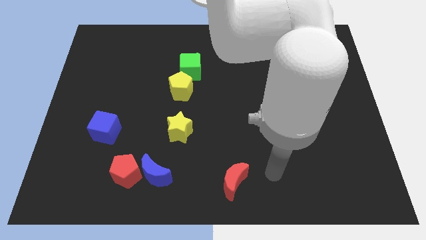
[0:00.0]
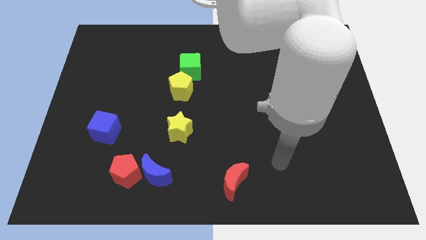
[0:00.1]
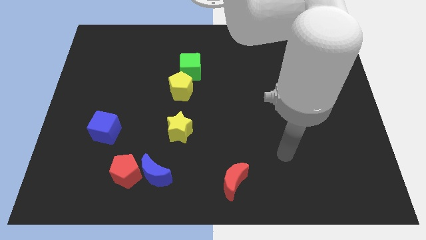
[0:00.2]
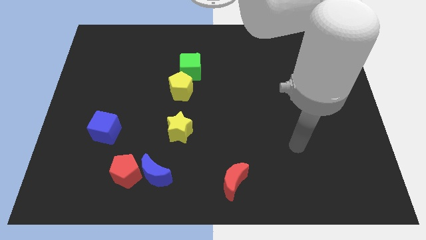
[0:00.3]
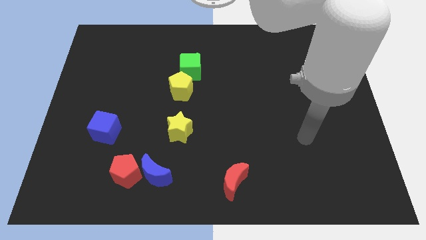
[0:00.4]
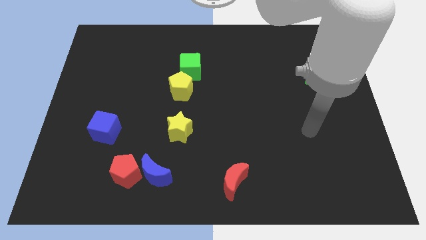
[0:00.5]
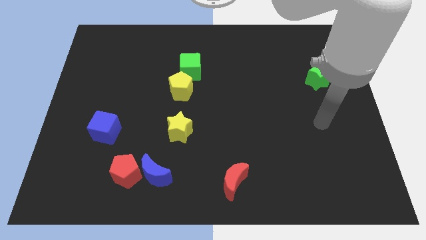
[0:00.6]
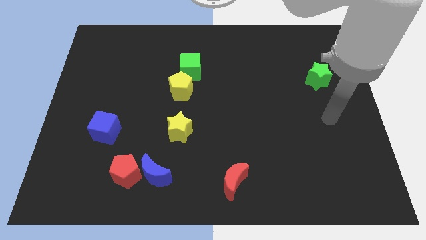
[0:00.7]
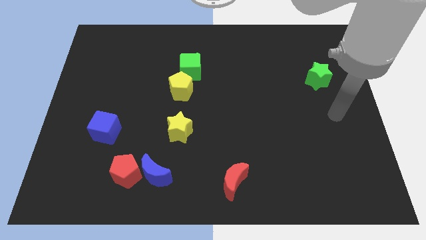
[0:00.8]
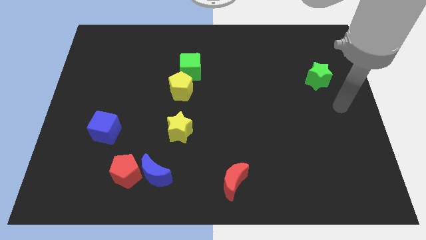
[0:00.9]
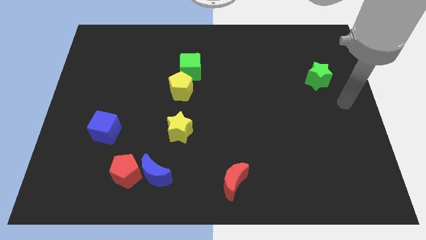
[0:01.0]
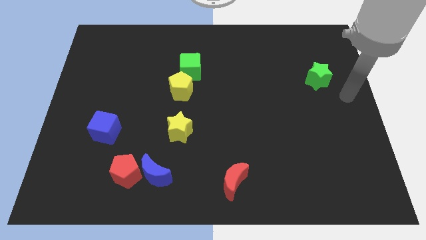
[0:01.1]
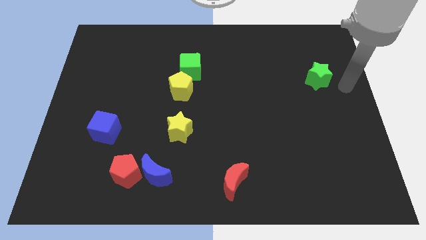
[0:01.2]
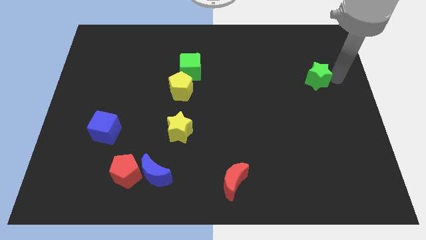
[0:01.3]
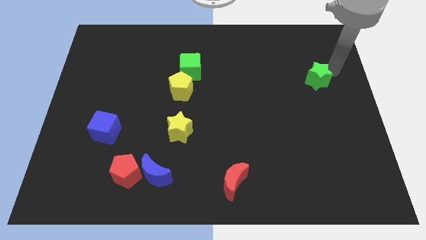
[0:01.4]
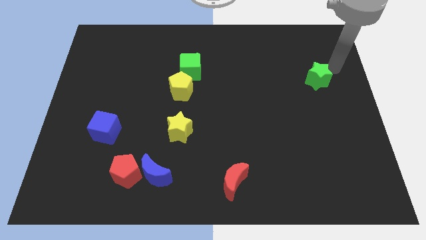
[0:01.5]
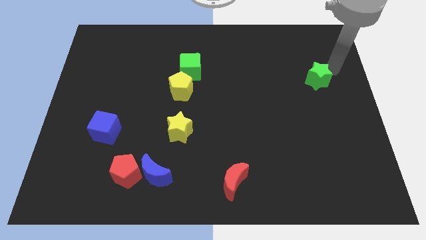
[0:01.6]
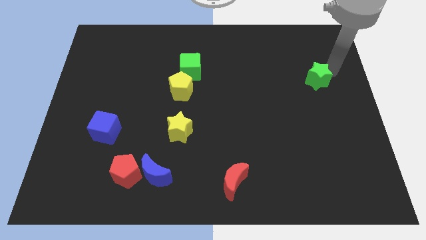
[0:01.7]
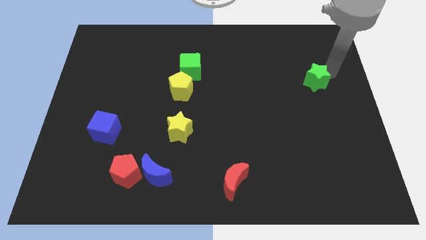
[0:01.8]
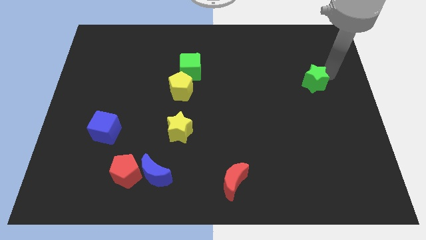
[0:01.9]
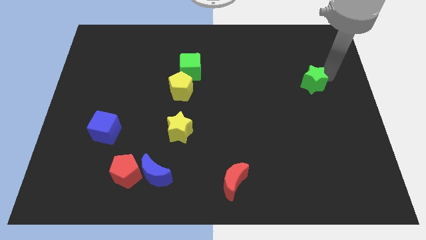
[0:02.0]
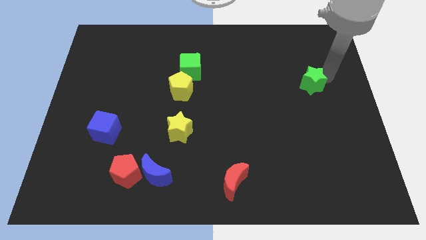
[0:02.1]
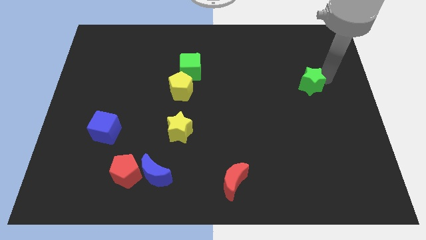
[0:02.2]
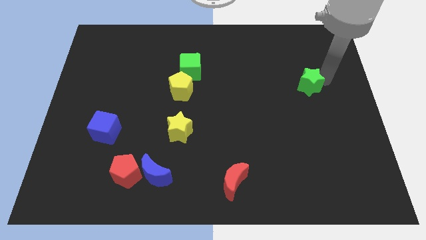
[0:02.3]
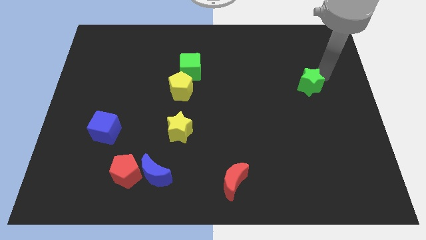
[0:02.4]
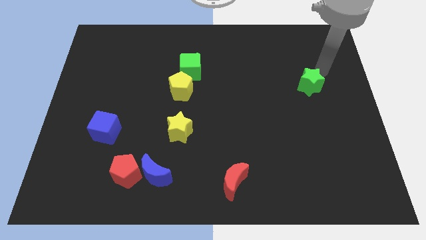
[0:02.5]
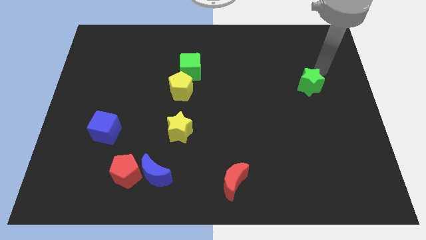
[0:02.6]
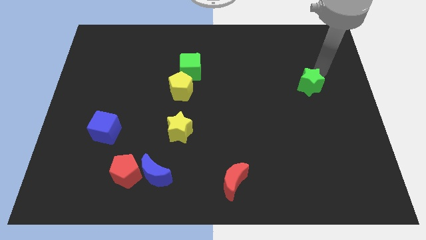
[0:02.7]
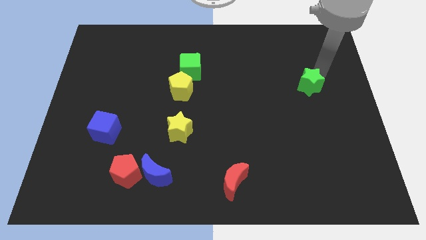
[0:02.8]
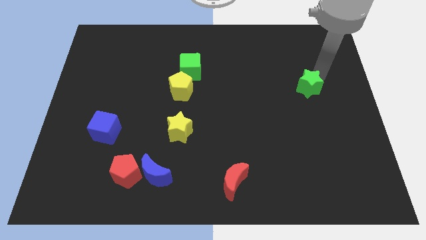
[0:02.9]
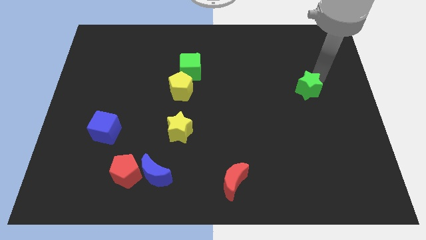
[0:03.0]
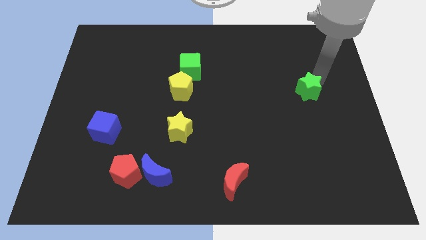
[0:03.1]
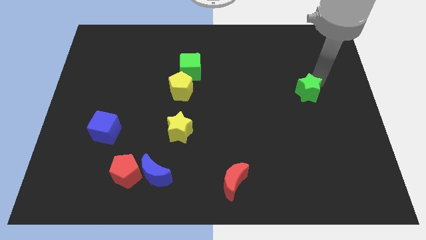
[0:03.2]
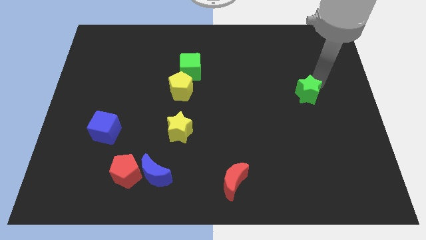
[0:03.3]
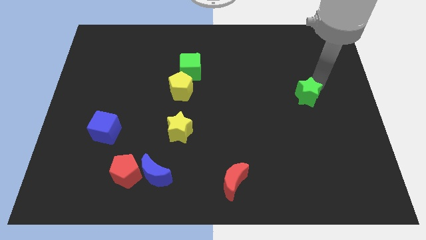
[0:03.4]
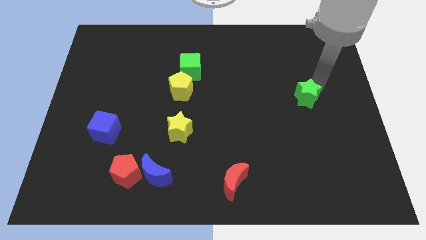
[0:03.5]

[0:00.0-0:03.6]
push the green star diagonally down and left somewhat

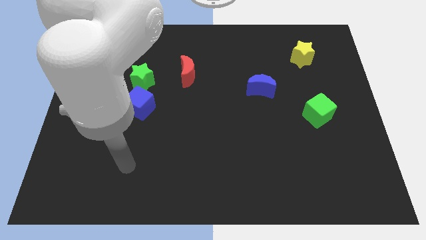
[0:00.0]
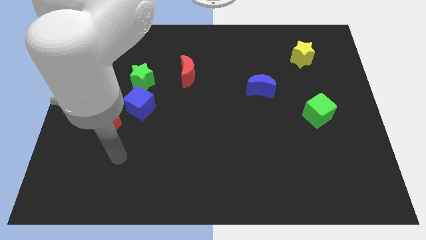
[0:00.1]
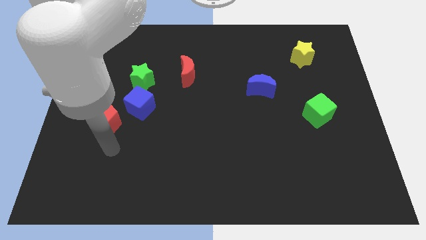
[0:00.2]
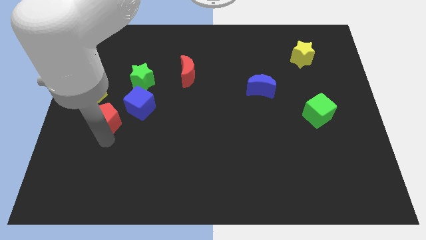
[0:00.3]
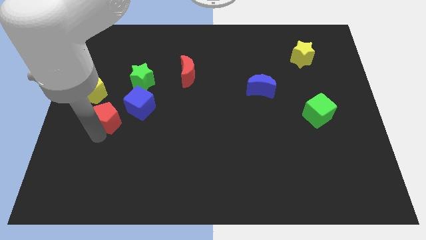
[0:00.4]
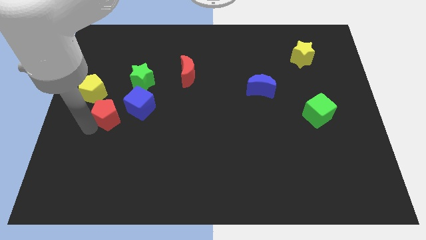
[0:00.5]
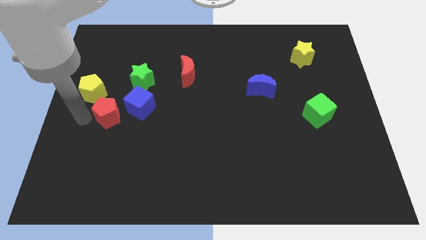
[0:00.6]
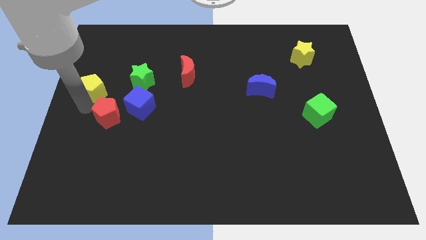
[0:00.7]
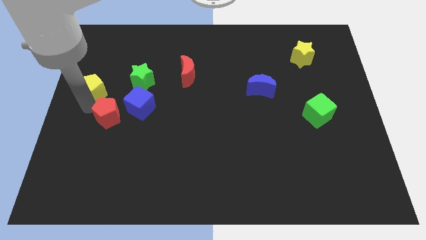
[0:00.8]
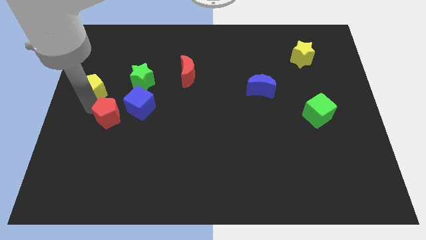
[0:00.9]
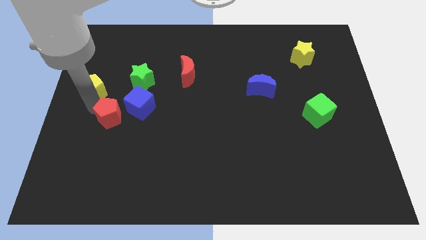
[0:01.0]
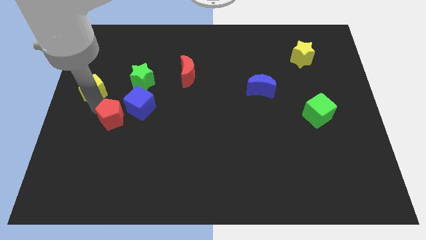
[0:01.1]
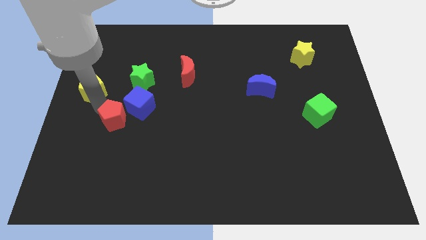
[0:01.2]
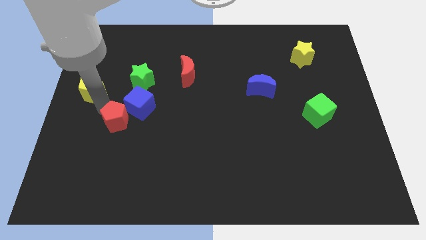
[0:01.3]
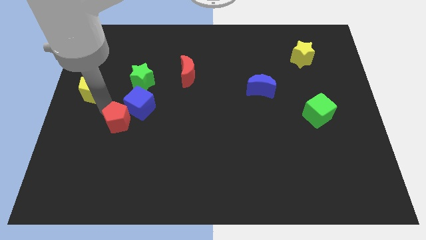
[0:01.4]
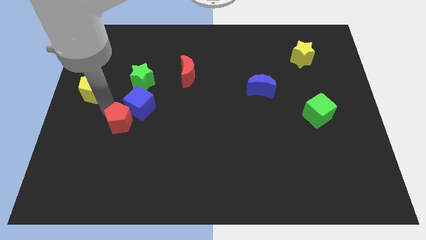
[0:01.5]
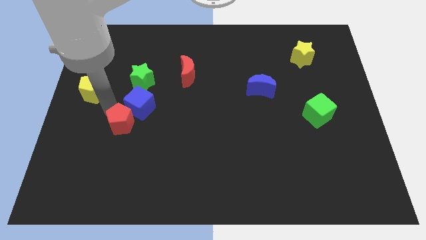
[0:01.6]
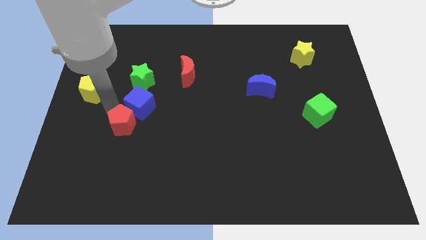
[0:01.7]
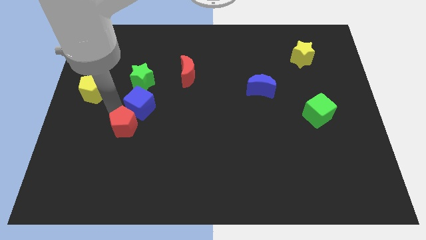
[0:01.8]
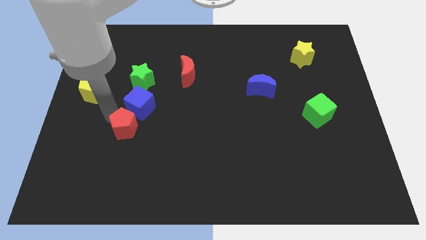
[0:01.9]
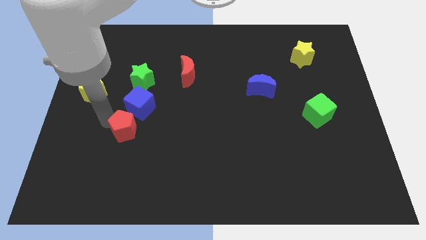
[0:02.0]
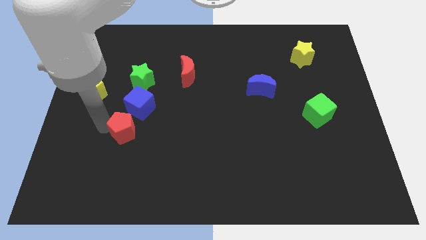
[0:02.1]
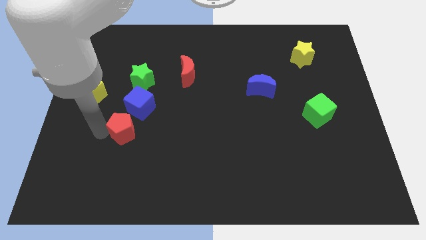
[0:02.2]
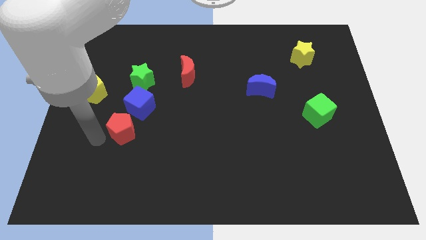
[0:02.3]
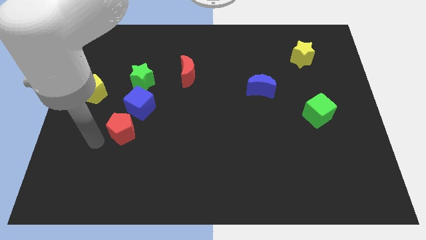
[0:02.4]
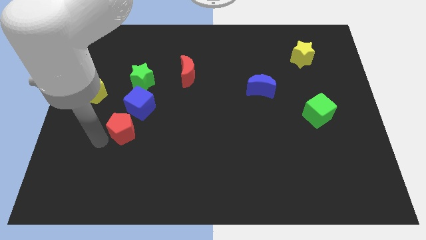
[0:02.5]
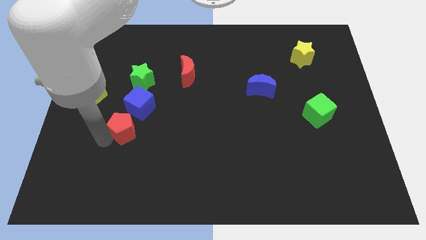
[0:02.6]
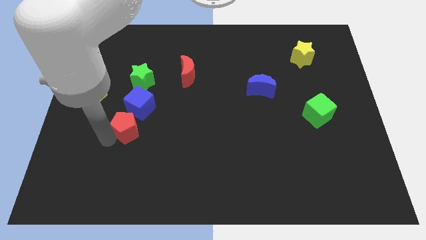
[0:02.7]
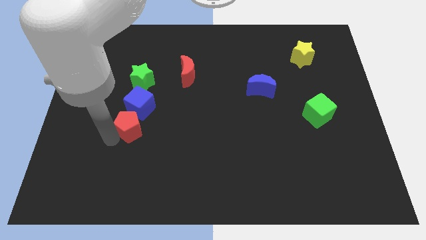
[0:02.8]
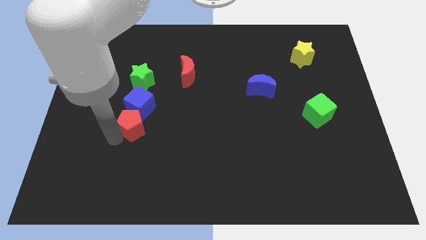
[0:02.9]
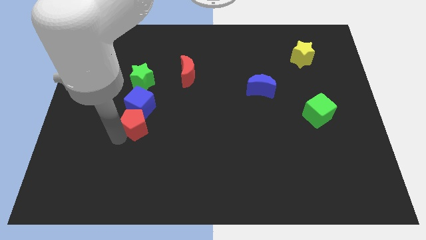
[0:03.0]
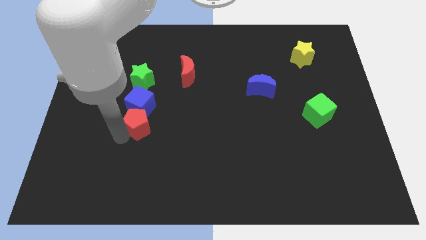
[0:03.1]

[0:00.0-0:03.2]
move the red pentagon to the right slightly

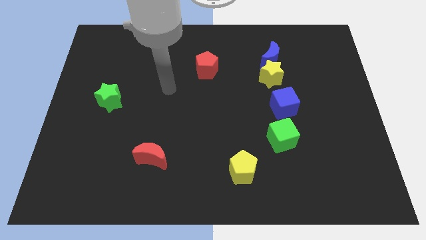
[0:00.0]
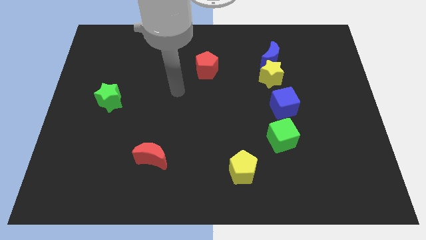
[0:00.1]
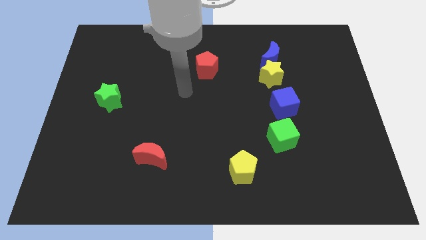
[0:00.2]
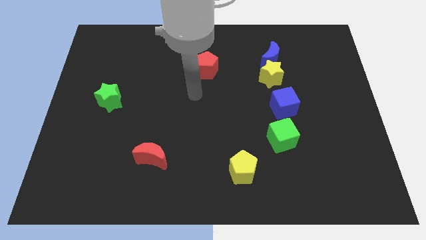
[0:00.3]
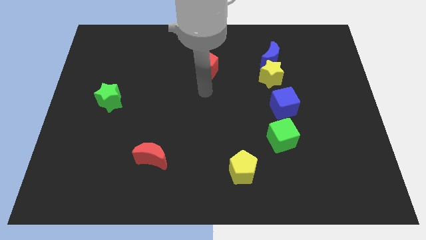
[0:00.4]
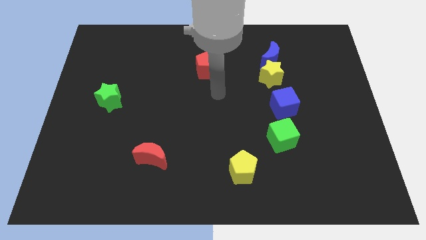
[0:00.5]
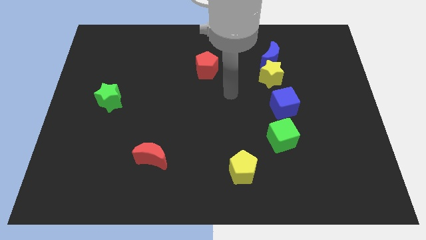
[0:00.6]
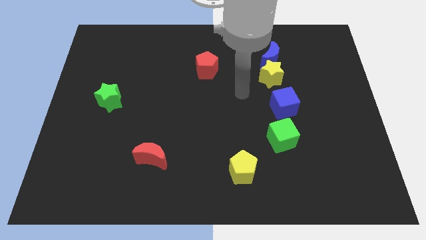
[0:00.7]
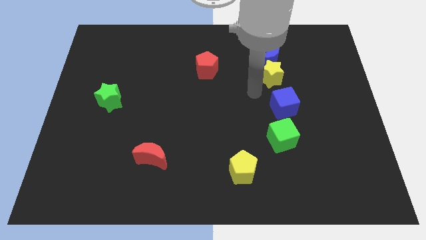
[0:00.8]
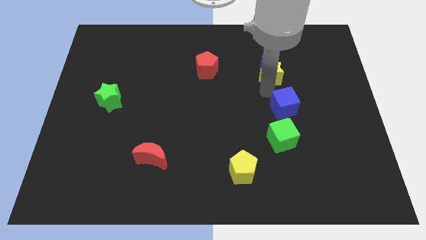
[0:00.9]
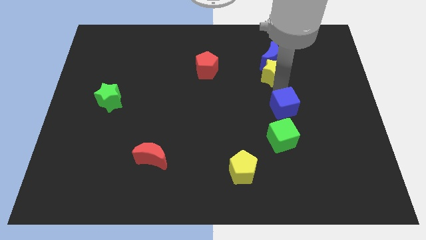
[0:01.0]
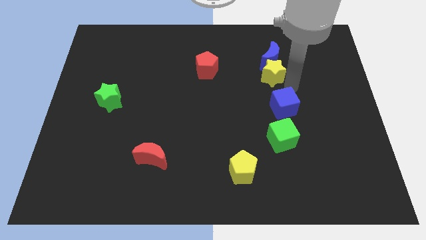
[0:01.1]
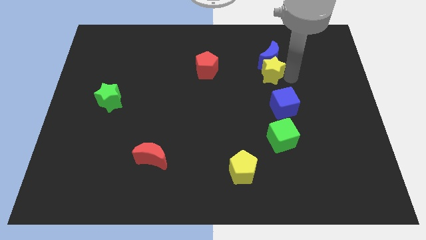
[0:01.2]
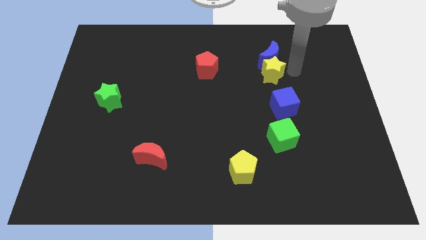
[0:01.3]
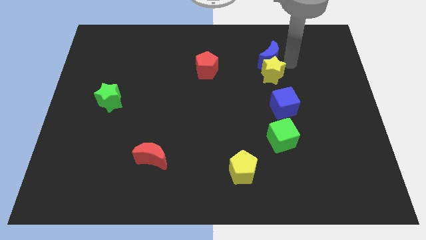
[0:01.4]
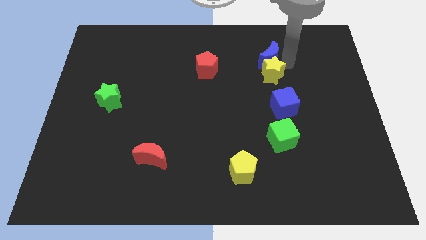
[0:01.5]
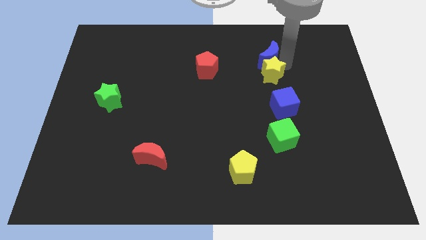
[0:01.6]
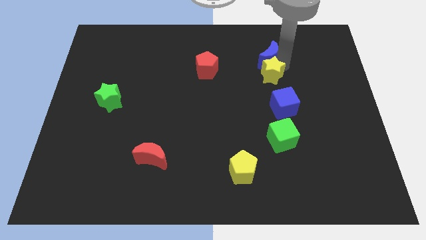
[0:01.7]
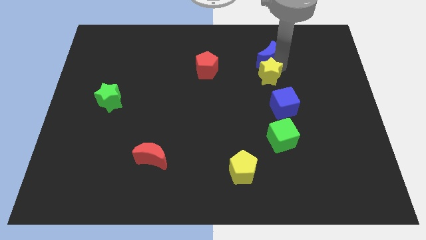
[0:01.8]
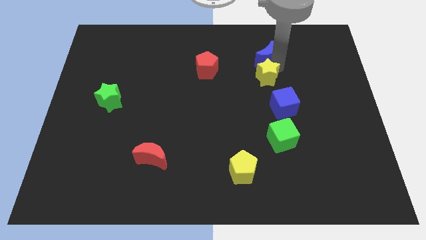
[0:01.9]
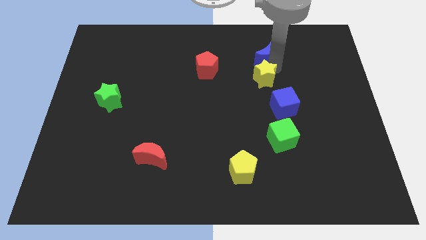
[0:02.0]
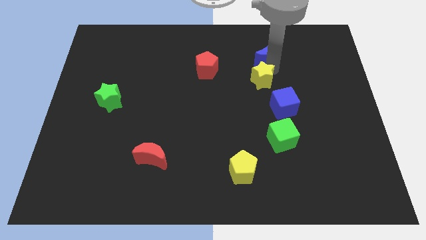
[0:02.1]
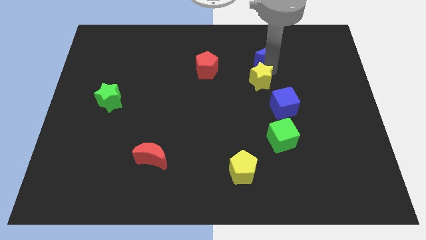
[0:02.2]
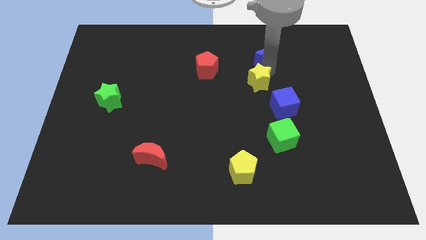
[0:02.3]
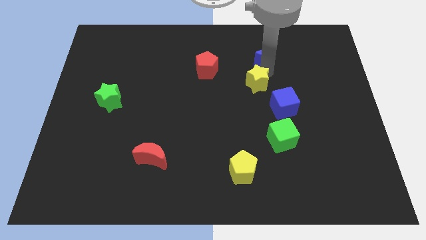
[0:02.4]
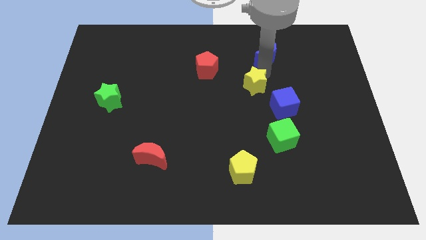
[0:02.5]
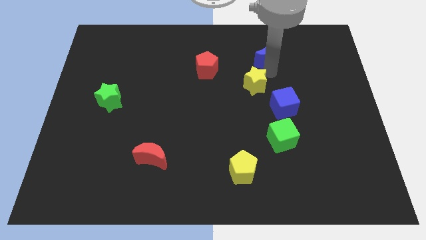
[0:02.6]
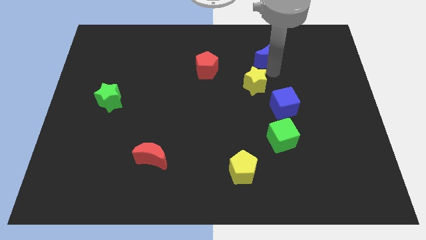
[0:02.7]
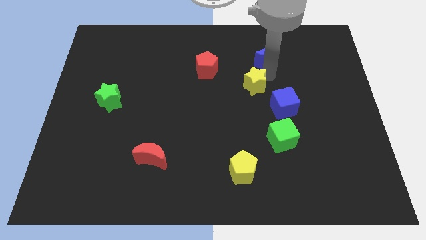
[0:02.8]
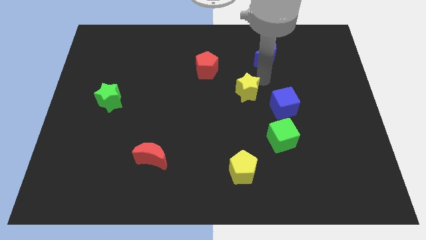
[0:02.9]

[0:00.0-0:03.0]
slightly slide the yellow star down and then left
